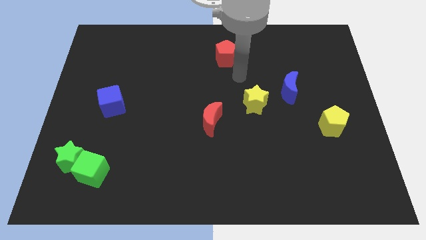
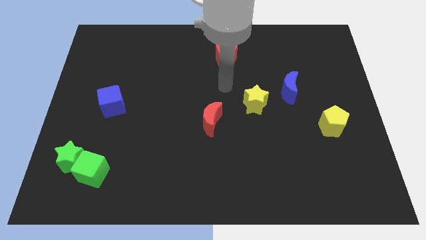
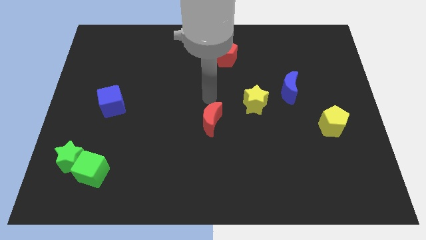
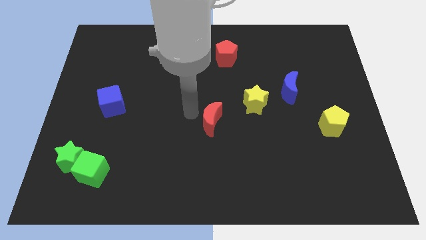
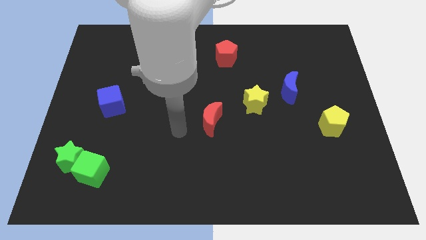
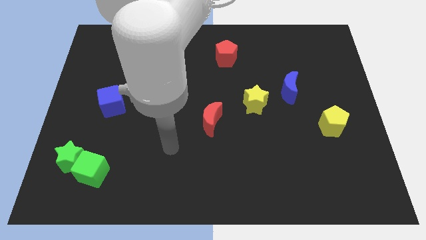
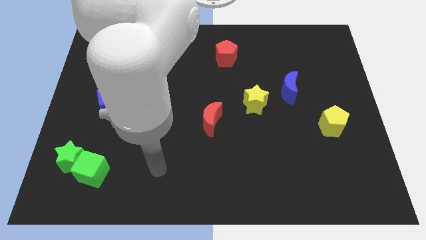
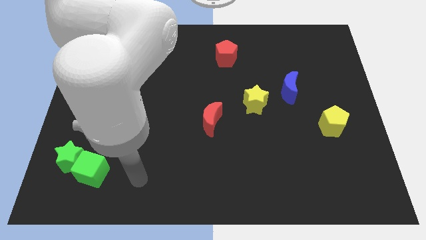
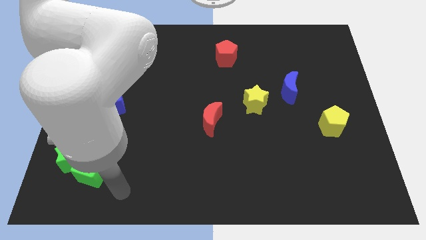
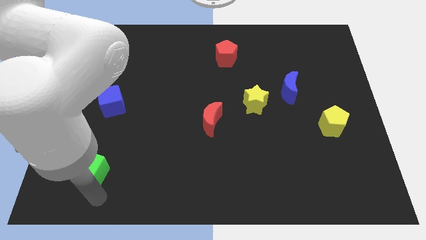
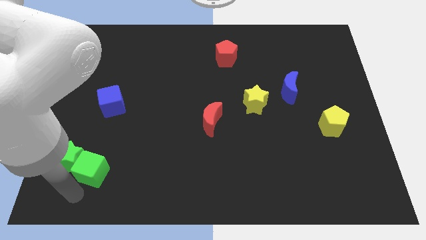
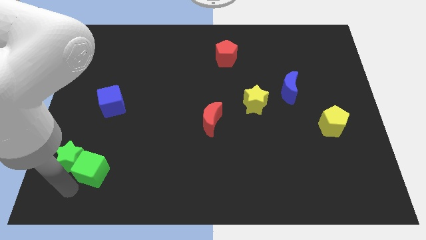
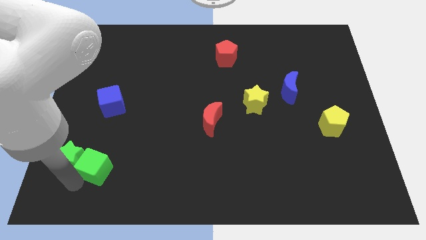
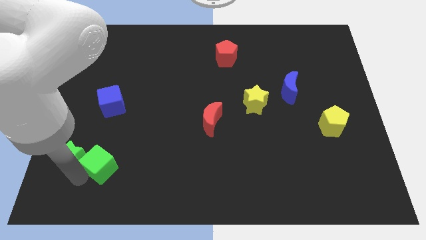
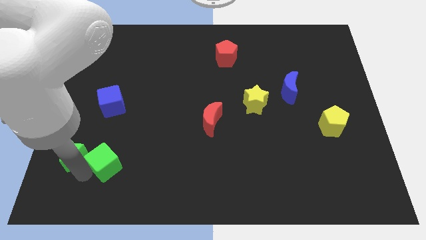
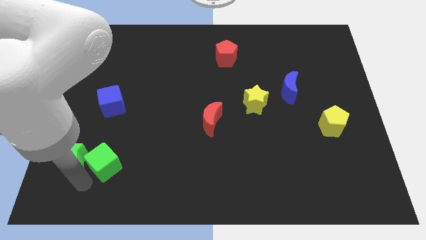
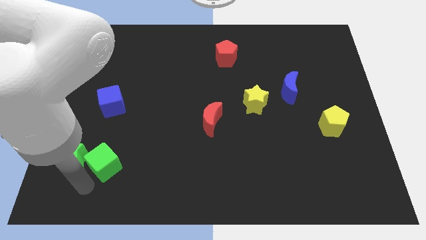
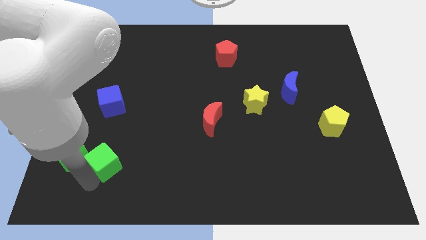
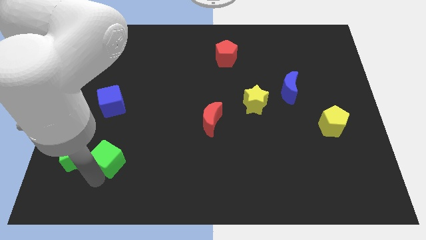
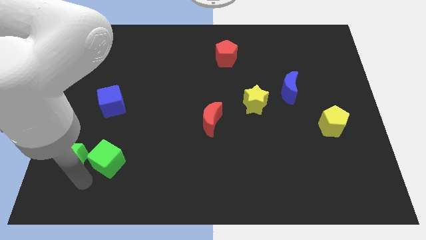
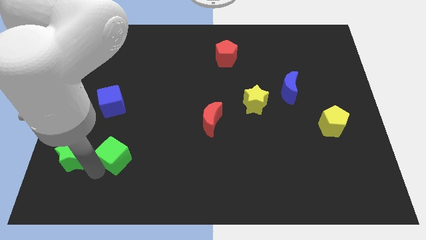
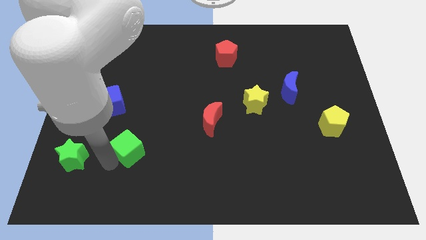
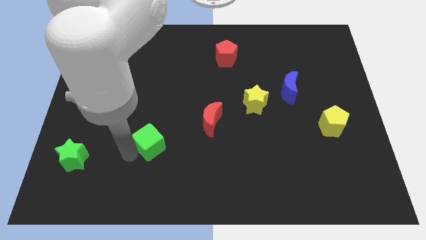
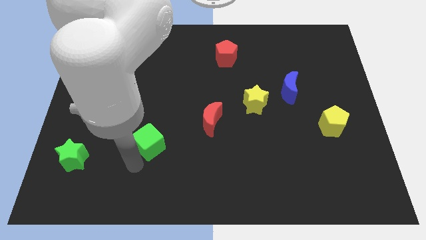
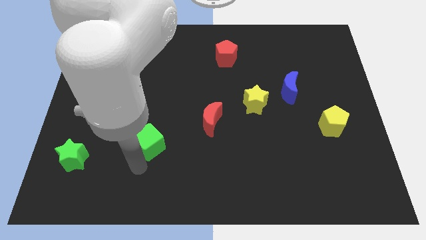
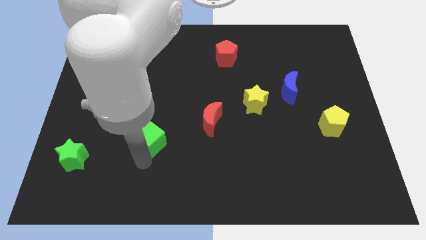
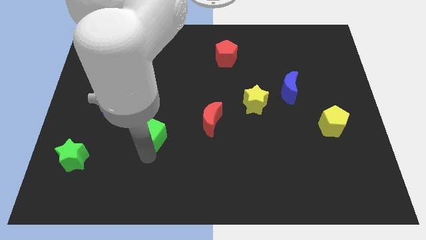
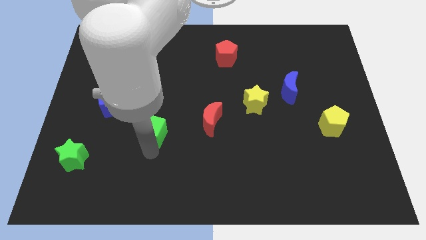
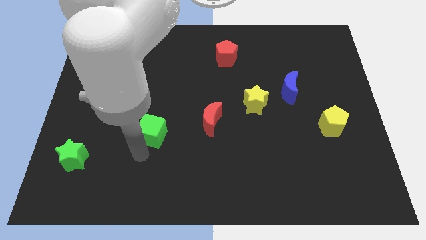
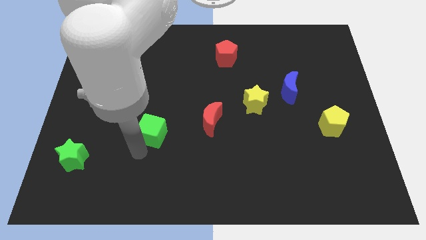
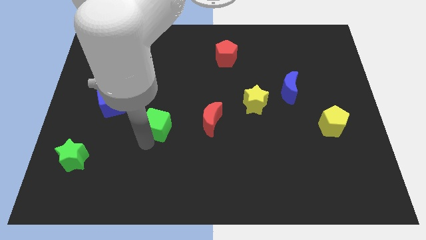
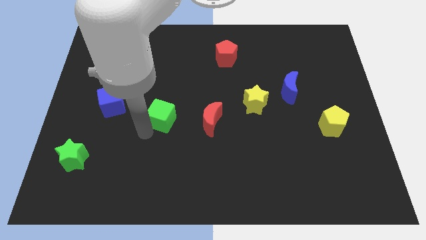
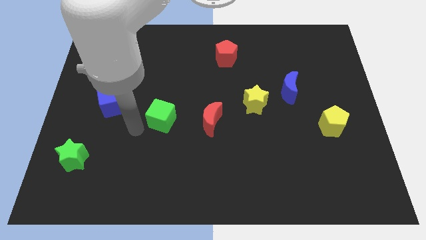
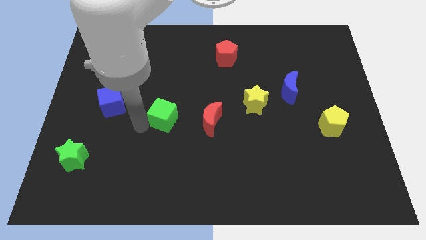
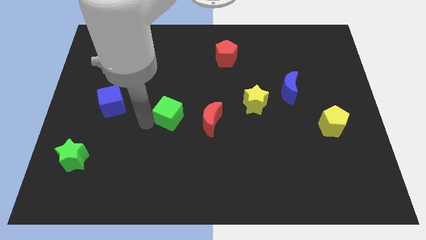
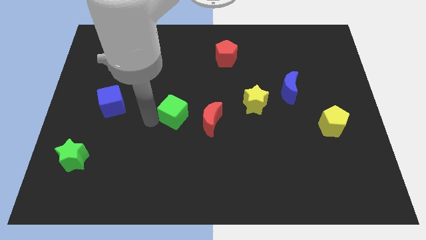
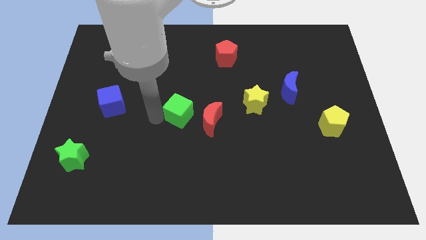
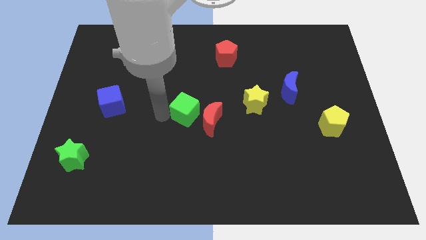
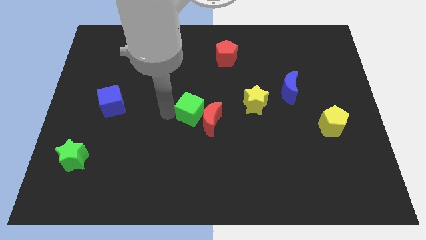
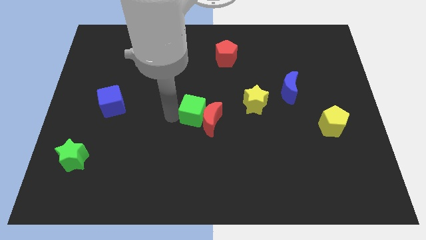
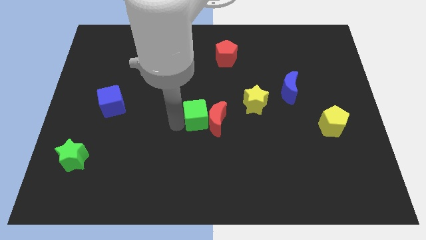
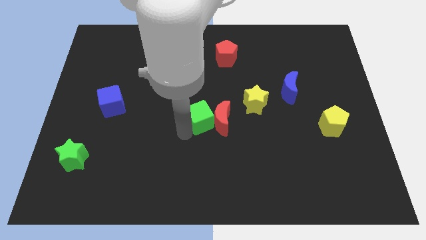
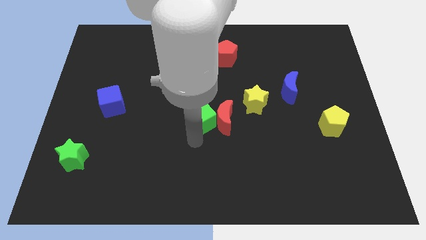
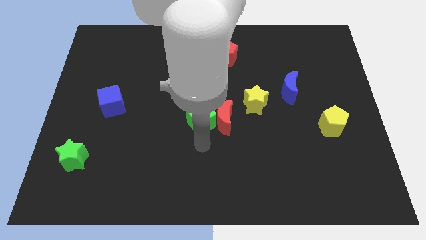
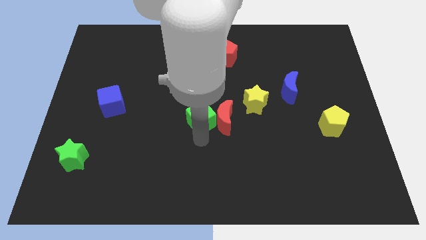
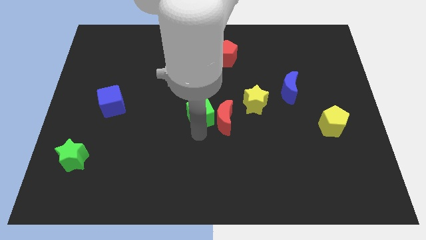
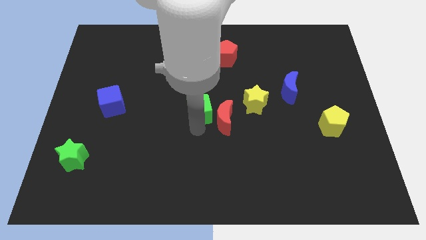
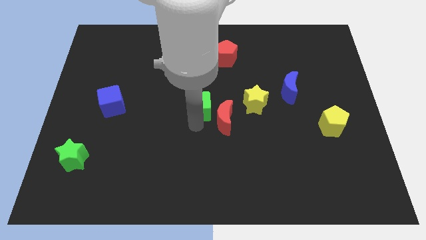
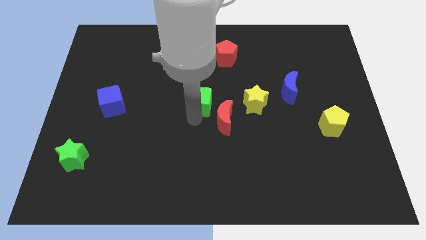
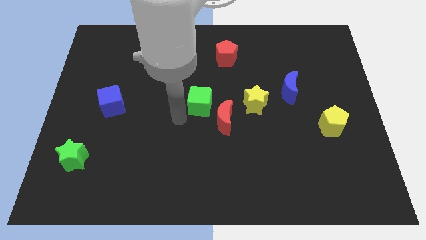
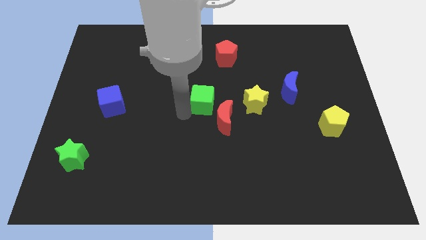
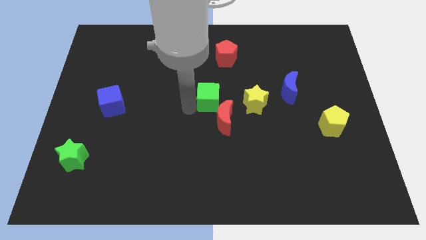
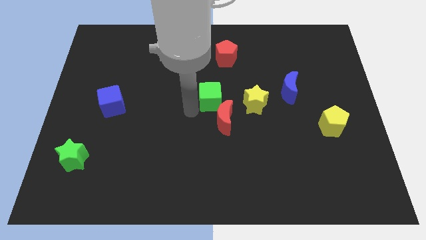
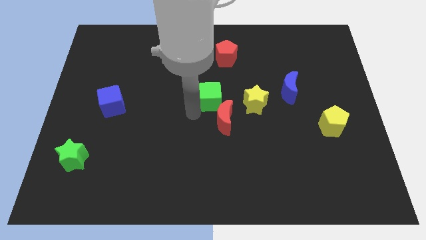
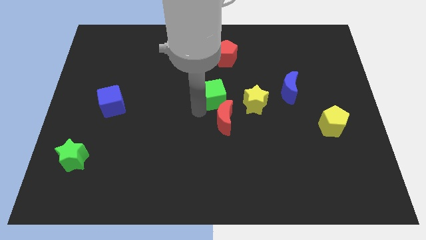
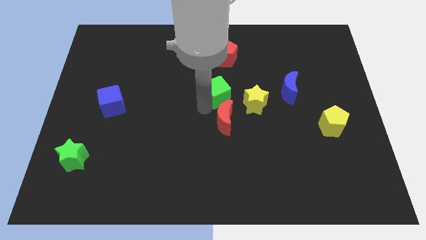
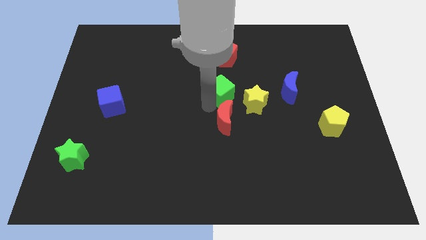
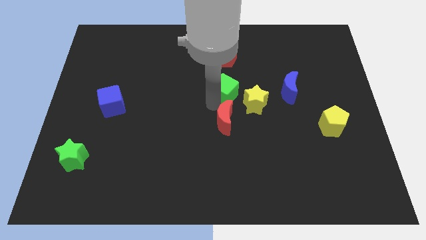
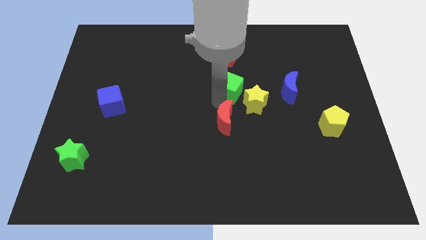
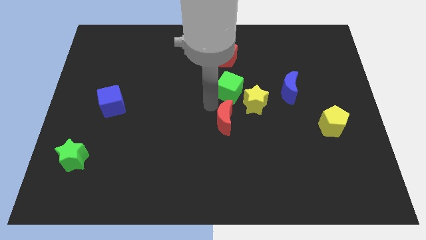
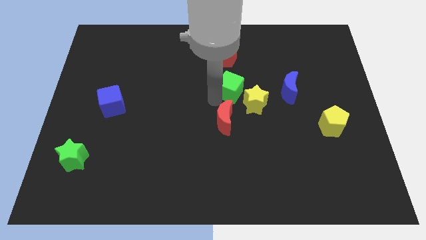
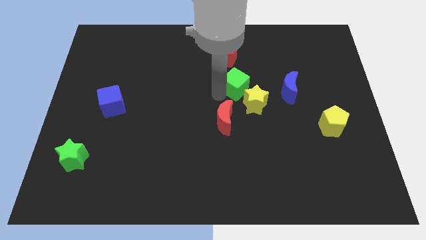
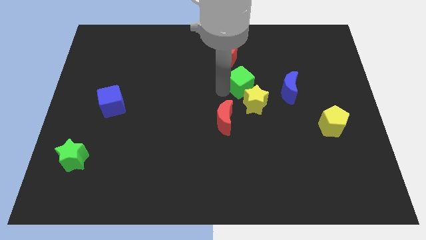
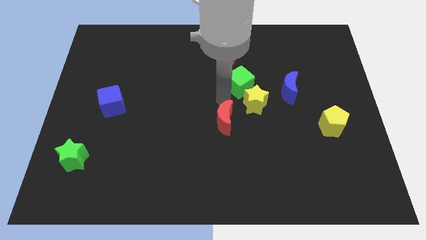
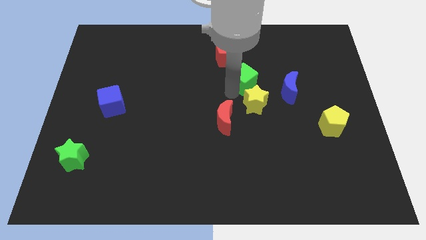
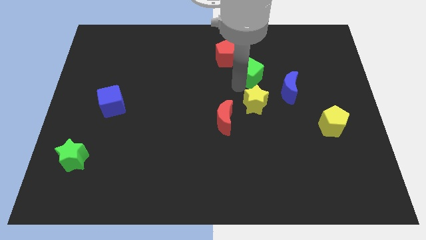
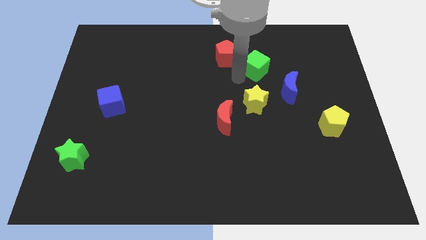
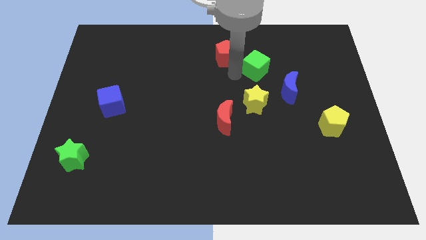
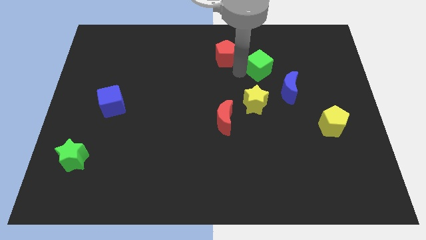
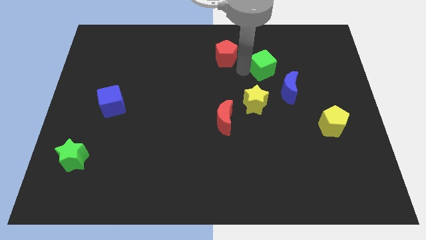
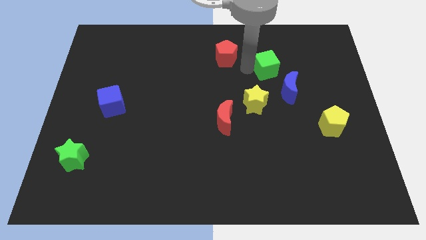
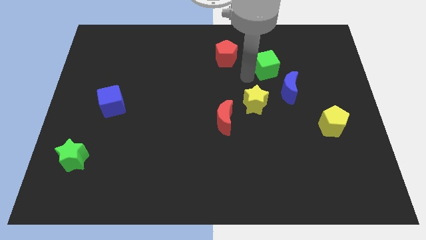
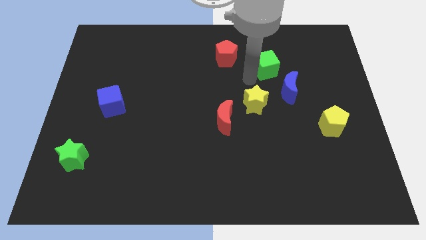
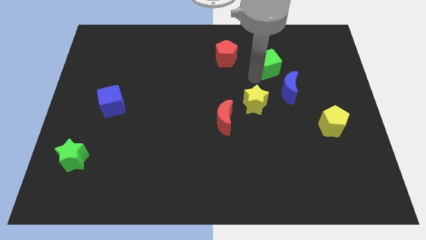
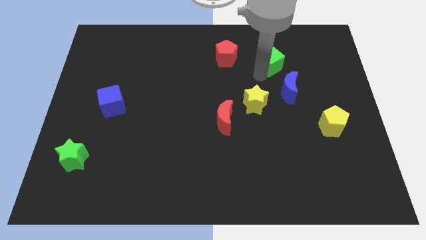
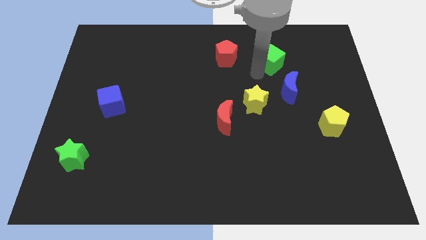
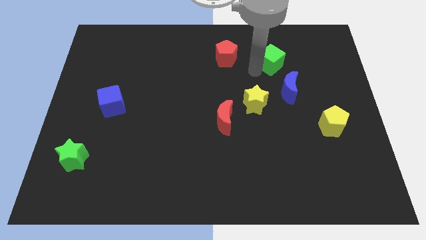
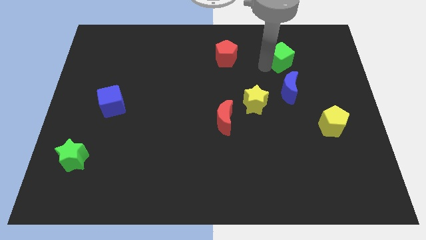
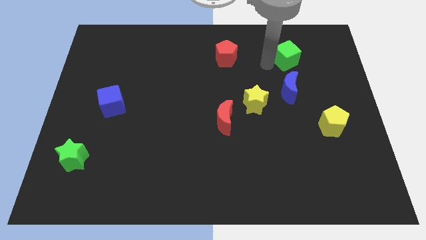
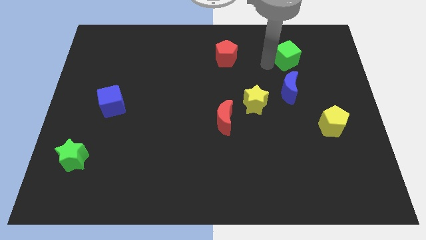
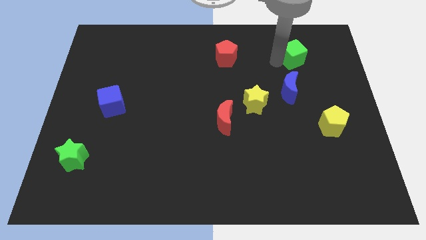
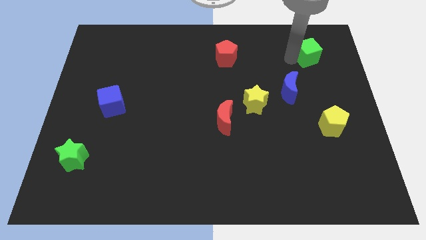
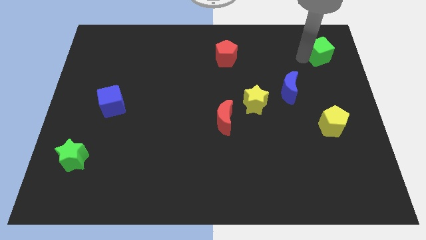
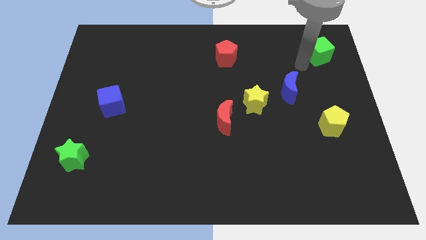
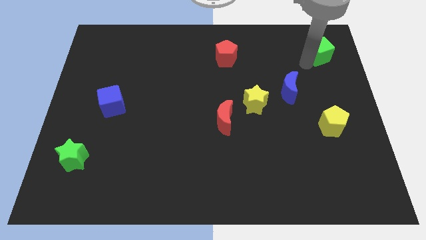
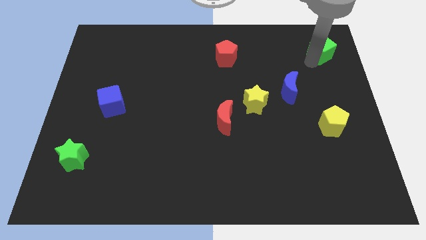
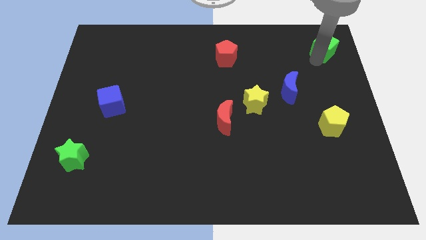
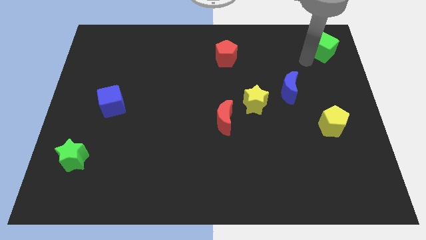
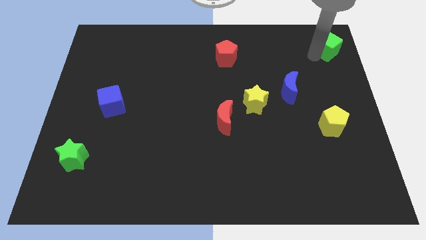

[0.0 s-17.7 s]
push the green cube to the upper right corner
